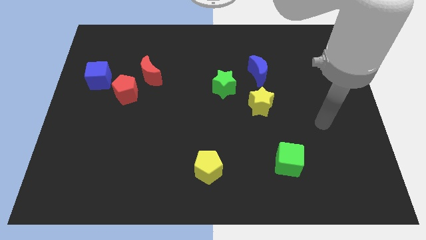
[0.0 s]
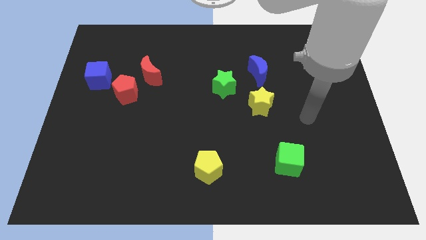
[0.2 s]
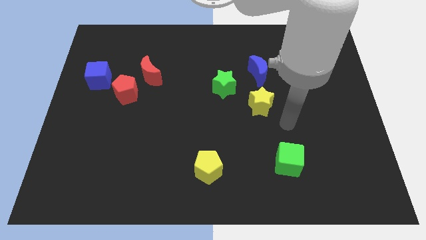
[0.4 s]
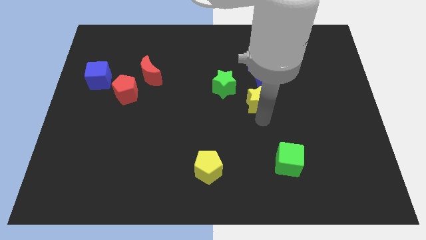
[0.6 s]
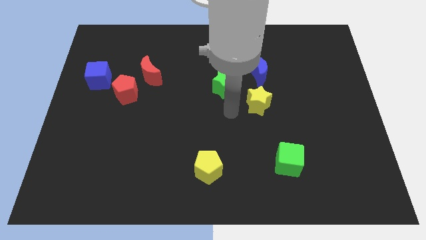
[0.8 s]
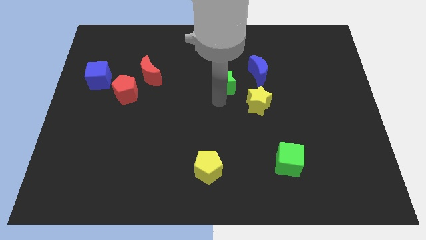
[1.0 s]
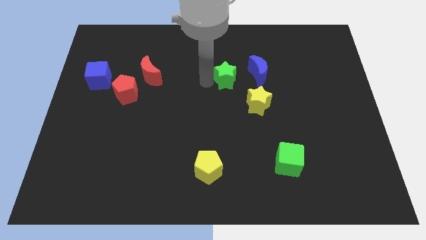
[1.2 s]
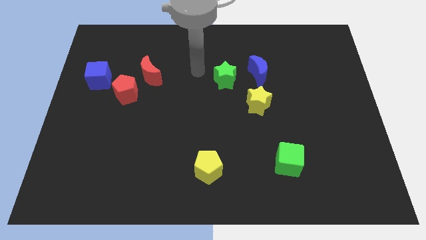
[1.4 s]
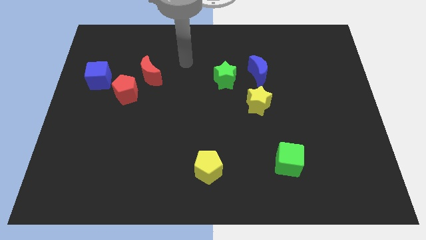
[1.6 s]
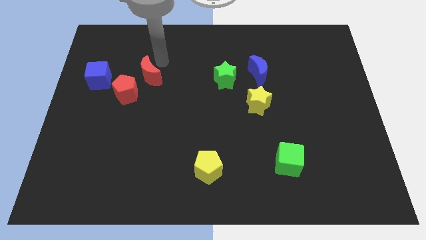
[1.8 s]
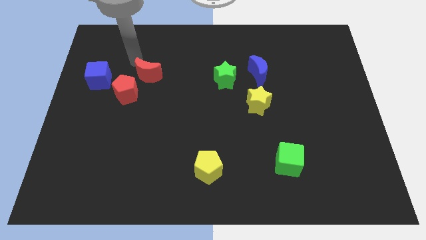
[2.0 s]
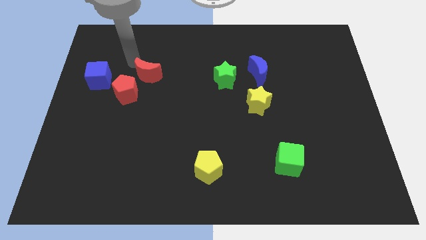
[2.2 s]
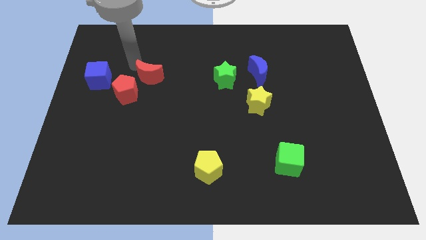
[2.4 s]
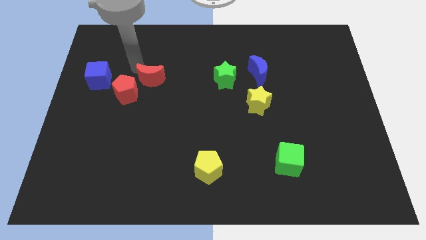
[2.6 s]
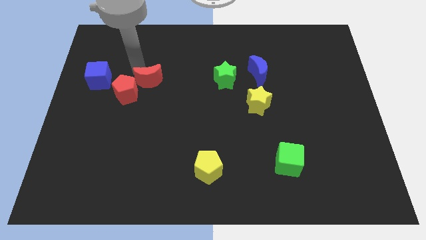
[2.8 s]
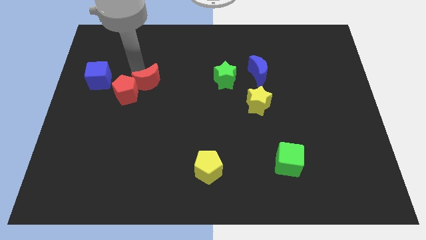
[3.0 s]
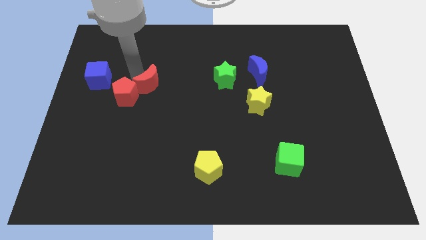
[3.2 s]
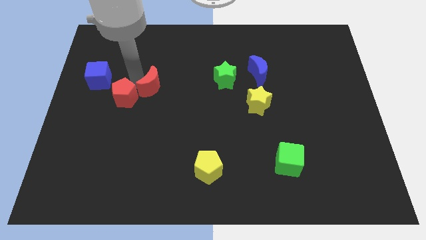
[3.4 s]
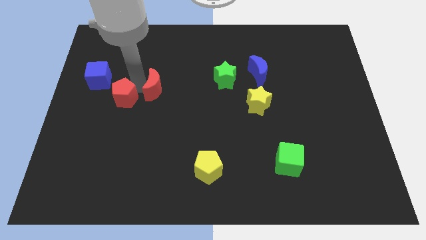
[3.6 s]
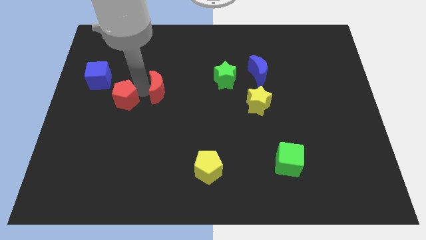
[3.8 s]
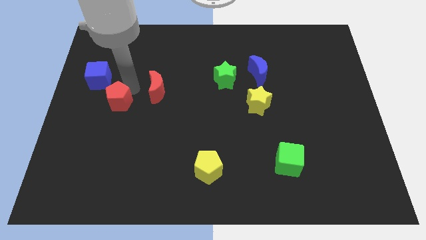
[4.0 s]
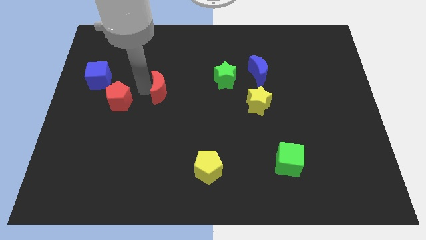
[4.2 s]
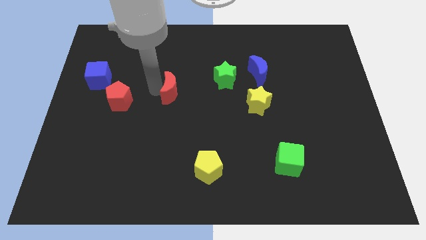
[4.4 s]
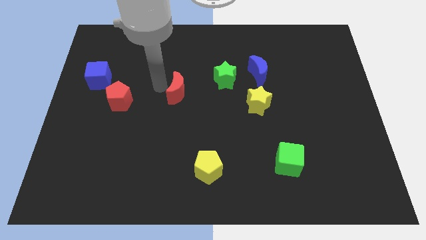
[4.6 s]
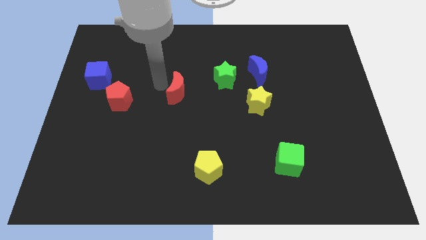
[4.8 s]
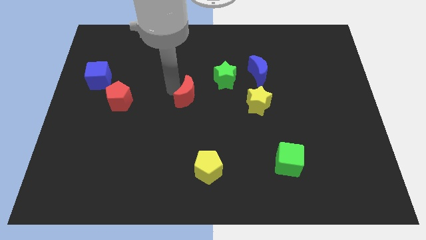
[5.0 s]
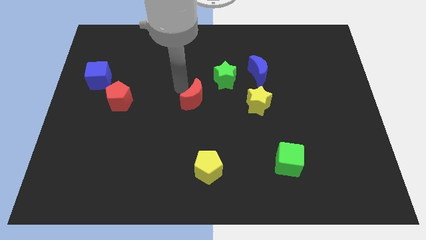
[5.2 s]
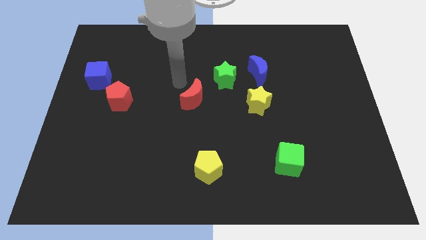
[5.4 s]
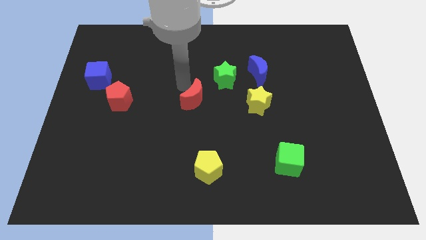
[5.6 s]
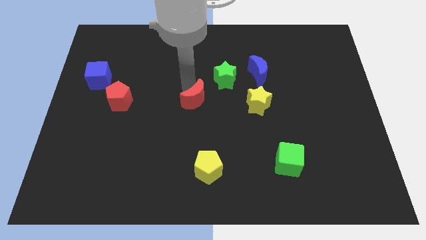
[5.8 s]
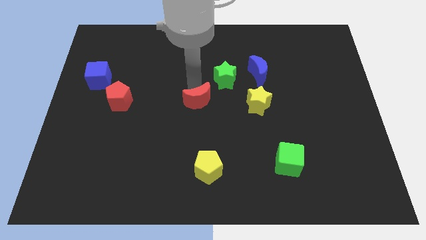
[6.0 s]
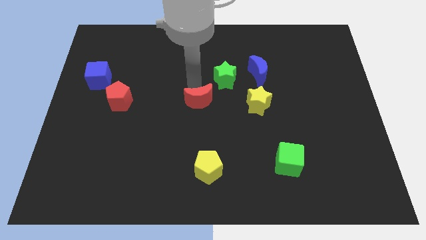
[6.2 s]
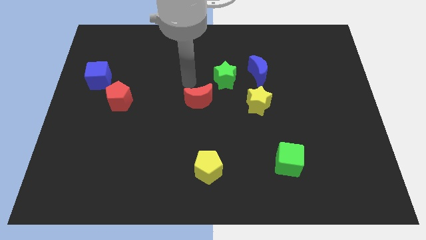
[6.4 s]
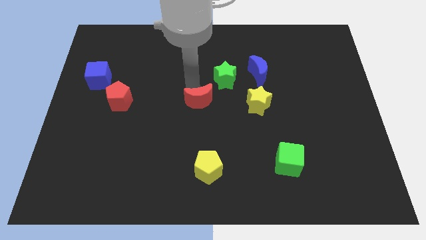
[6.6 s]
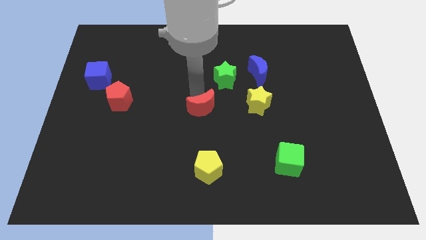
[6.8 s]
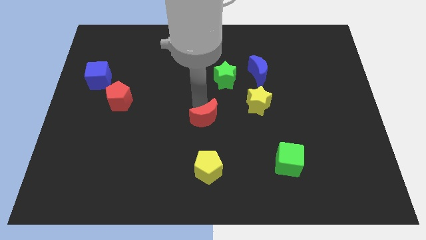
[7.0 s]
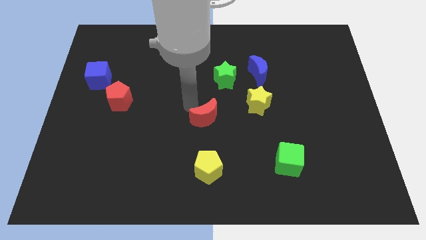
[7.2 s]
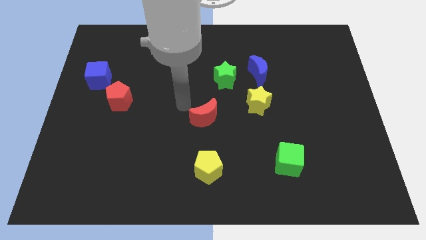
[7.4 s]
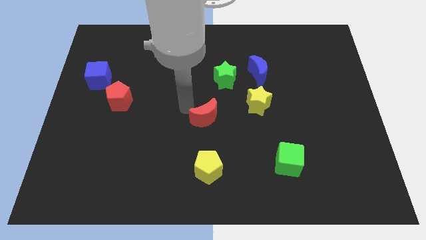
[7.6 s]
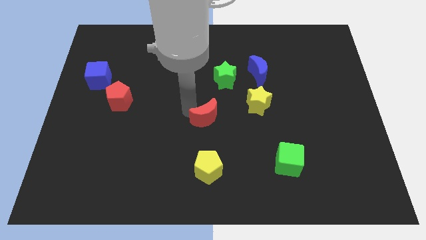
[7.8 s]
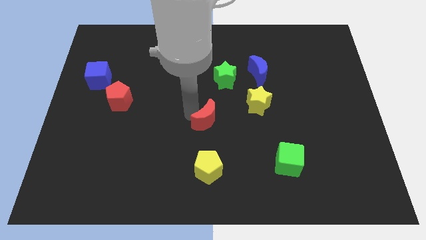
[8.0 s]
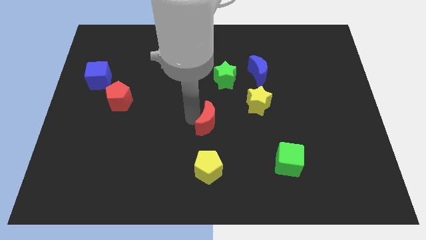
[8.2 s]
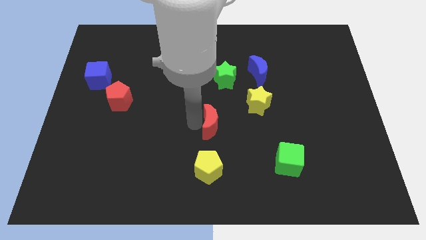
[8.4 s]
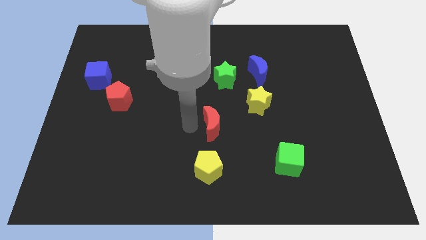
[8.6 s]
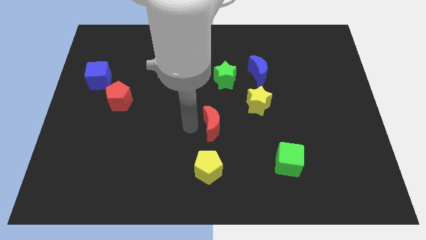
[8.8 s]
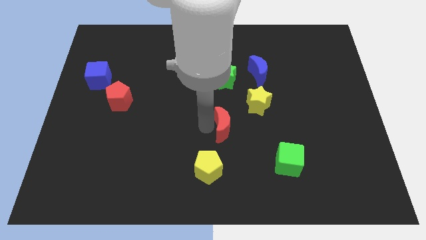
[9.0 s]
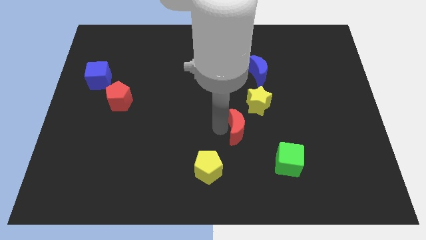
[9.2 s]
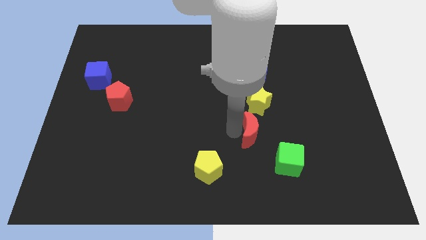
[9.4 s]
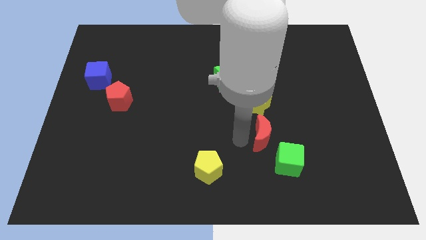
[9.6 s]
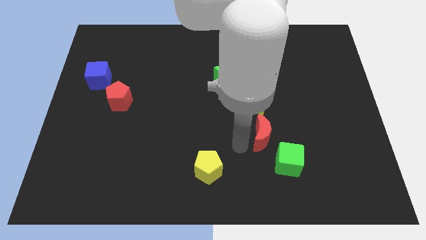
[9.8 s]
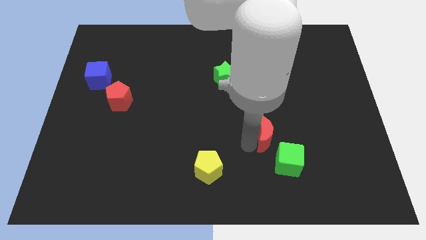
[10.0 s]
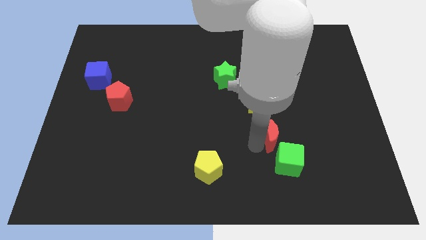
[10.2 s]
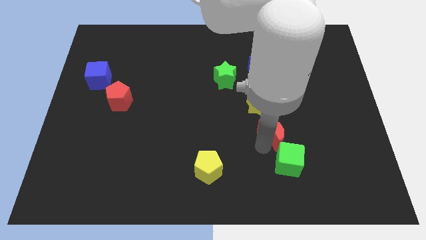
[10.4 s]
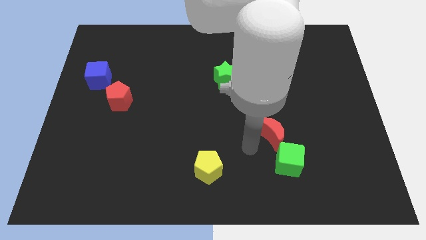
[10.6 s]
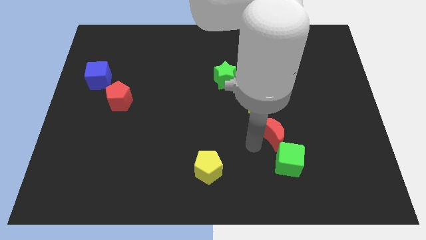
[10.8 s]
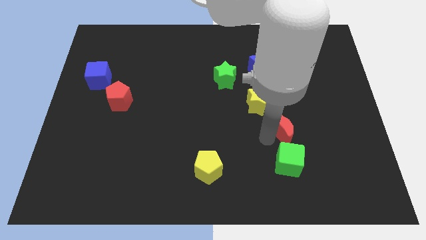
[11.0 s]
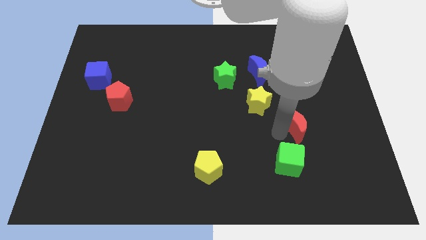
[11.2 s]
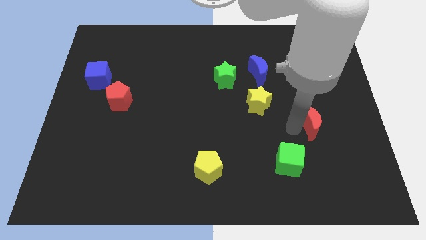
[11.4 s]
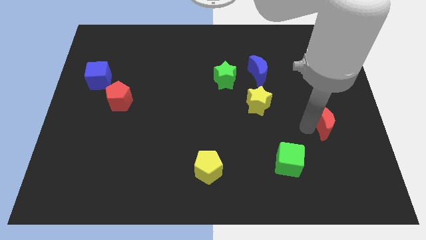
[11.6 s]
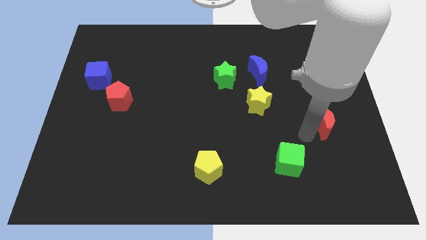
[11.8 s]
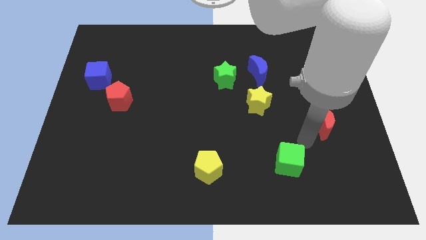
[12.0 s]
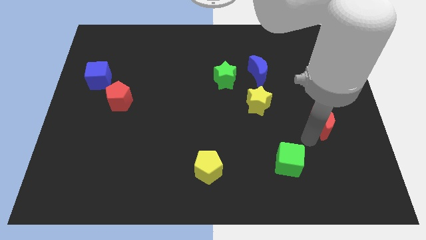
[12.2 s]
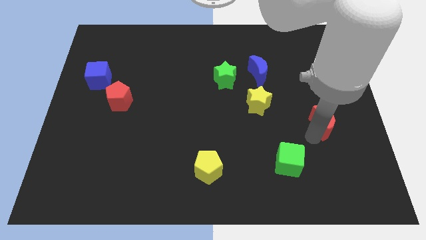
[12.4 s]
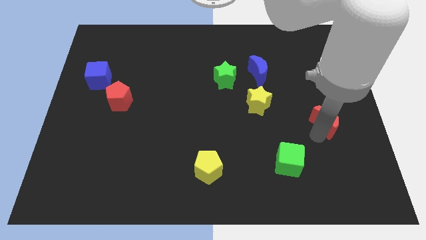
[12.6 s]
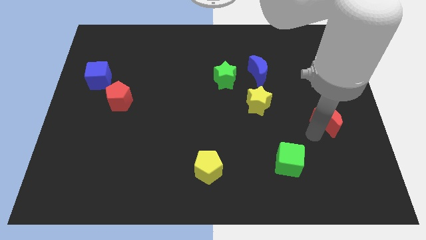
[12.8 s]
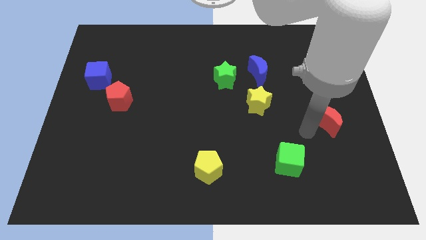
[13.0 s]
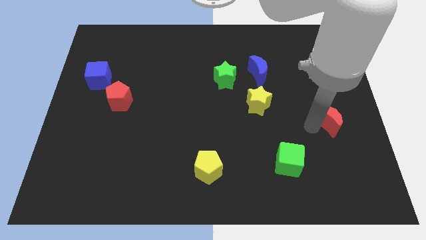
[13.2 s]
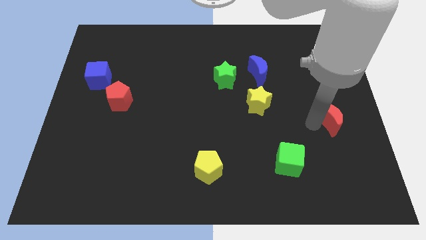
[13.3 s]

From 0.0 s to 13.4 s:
put the red moon to the right side
